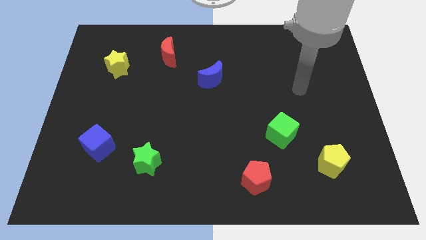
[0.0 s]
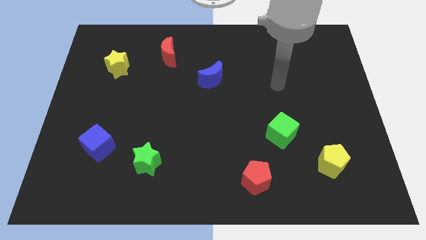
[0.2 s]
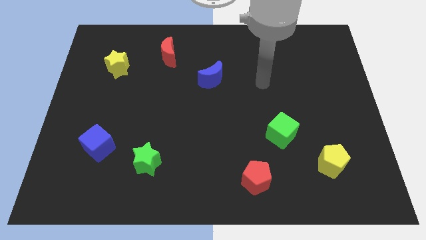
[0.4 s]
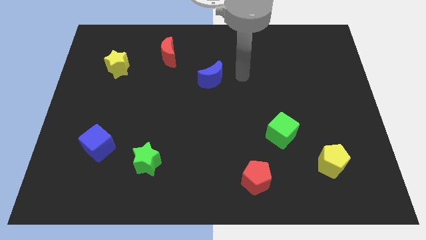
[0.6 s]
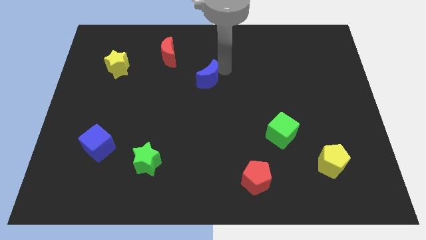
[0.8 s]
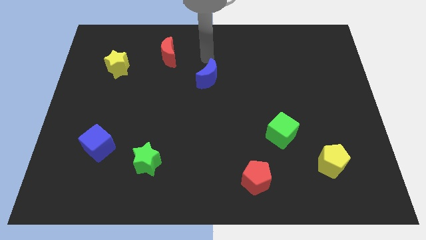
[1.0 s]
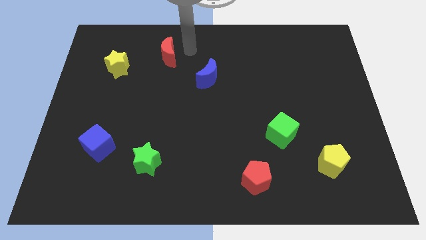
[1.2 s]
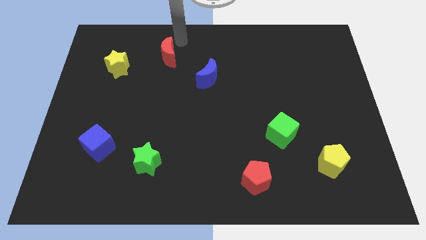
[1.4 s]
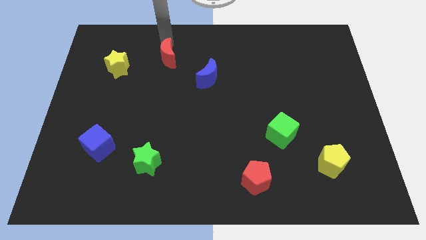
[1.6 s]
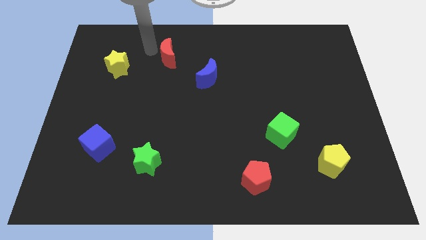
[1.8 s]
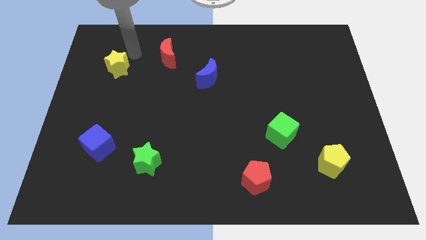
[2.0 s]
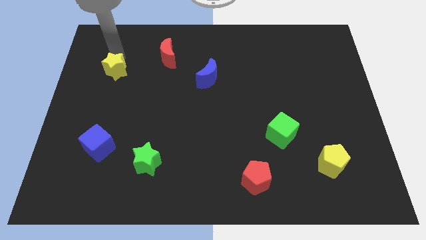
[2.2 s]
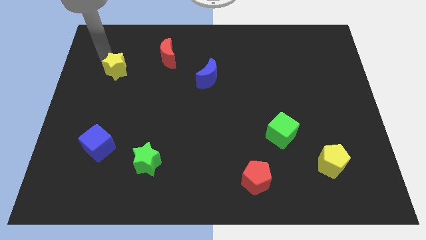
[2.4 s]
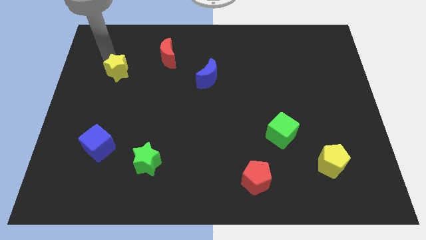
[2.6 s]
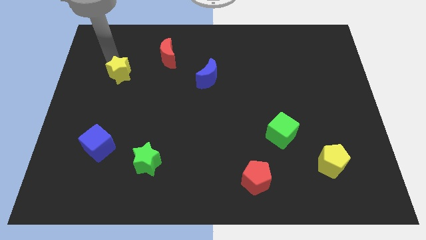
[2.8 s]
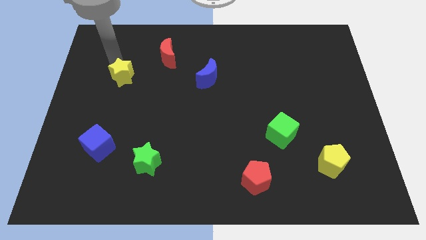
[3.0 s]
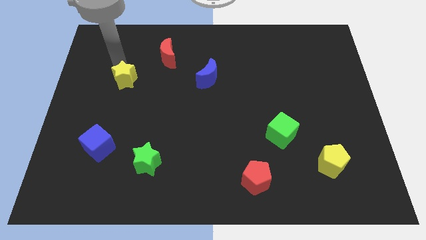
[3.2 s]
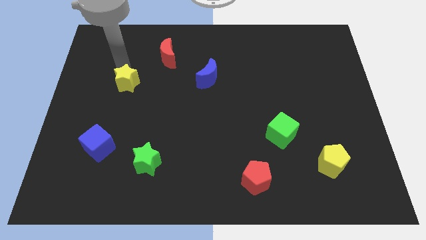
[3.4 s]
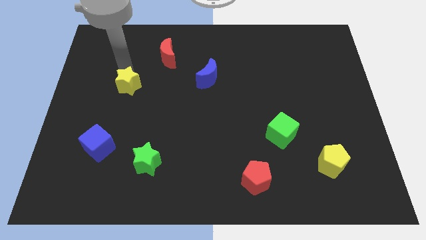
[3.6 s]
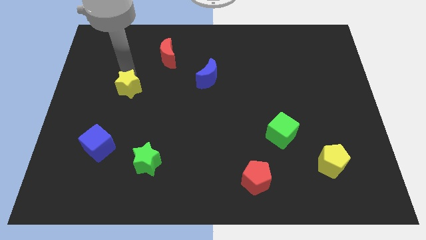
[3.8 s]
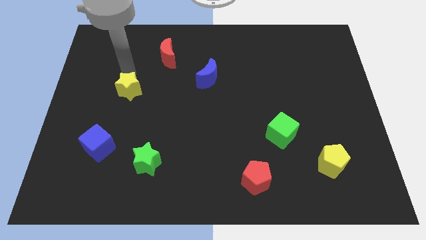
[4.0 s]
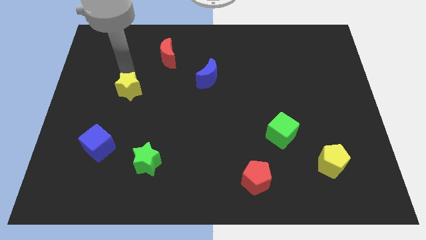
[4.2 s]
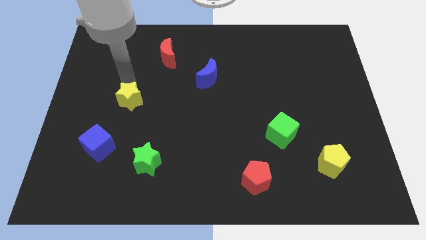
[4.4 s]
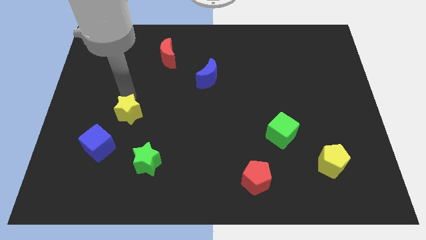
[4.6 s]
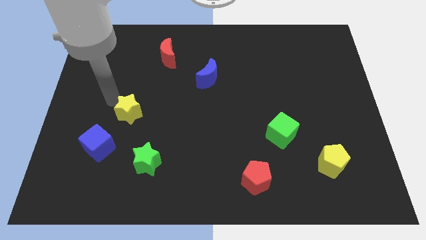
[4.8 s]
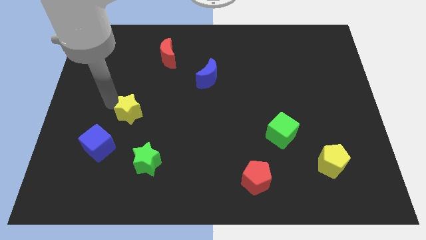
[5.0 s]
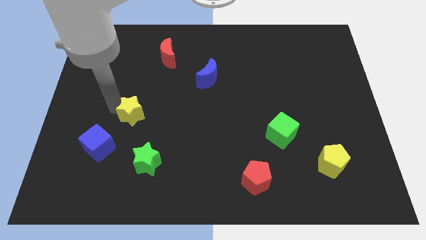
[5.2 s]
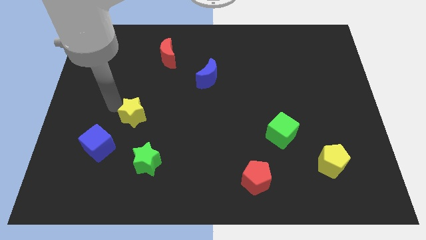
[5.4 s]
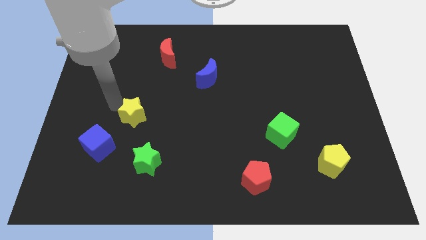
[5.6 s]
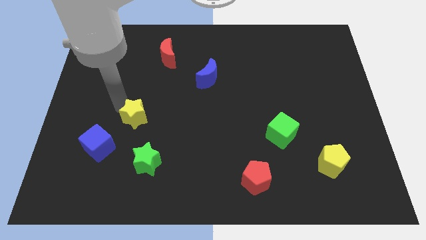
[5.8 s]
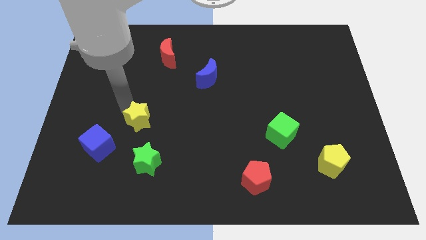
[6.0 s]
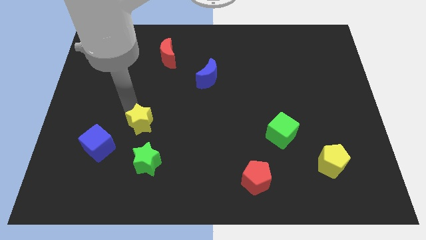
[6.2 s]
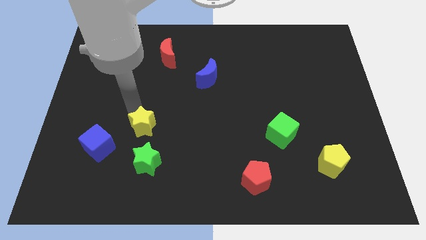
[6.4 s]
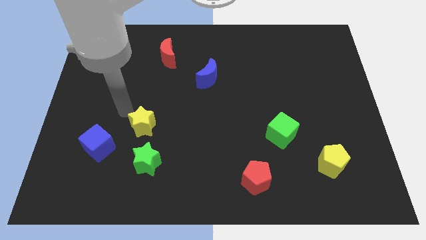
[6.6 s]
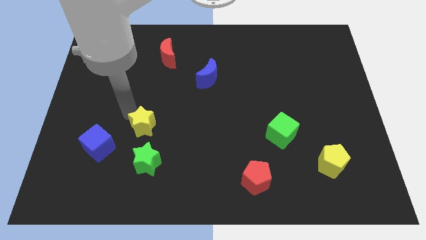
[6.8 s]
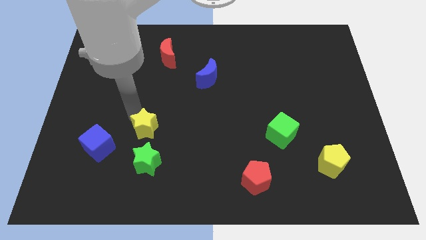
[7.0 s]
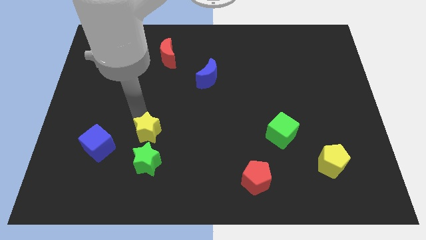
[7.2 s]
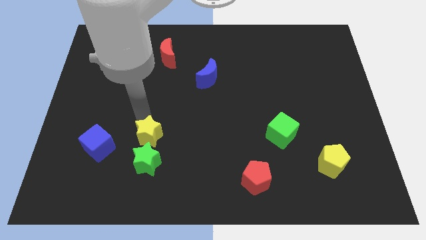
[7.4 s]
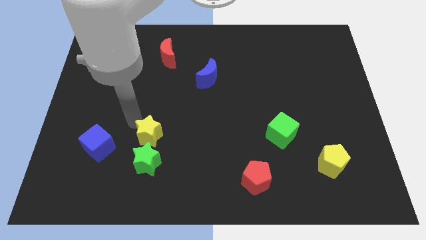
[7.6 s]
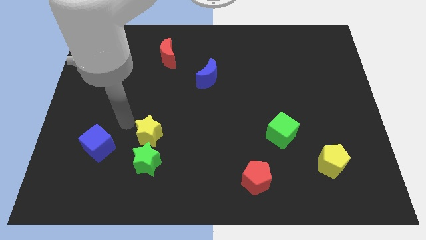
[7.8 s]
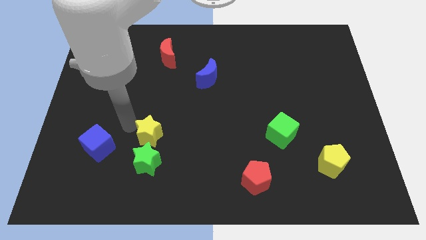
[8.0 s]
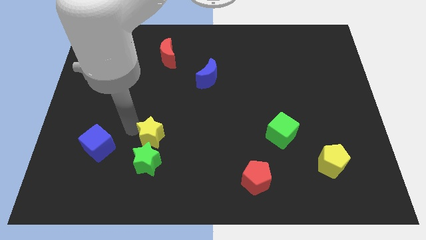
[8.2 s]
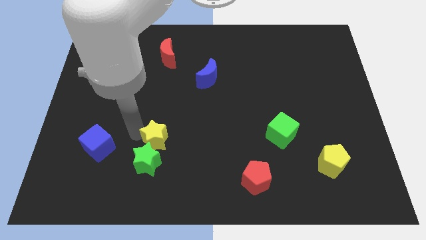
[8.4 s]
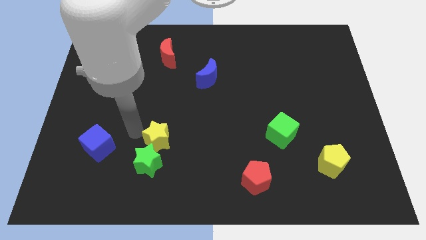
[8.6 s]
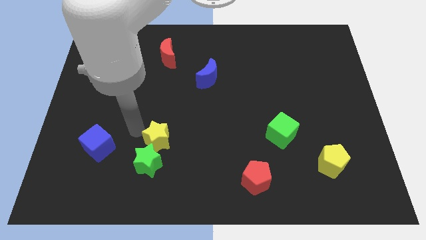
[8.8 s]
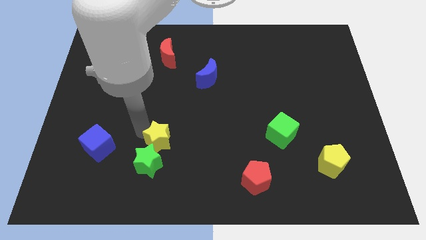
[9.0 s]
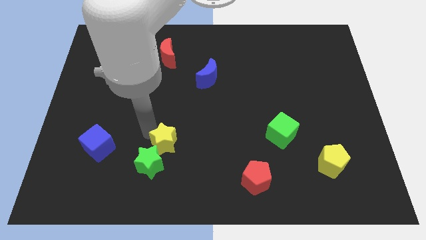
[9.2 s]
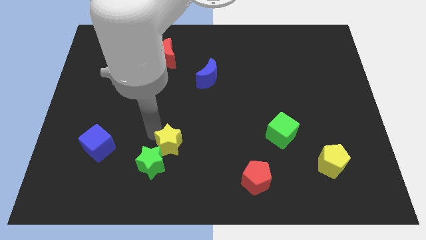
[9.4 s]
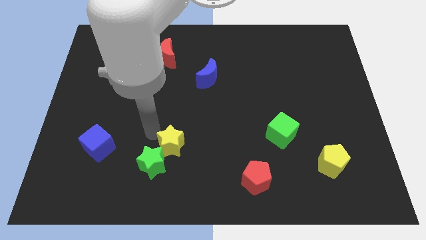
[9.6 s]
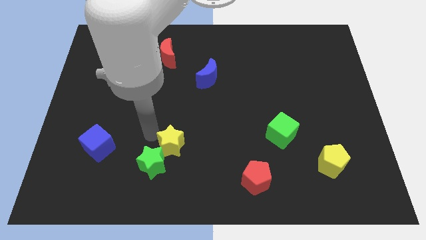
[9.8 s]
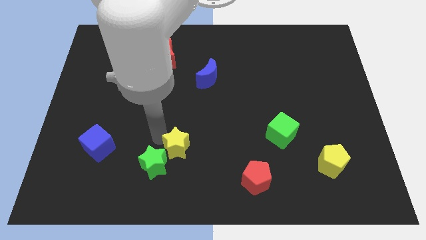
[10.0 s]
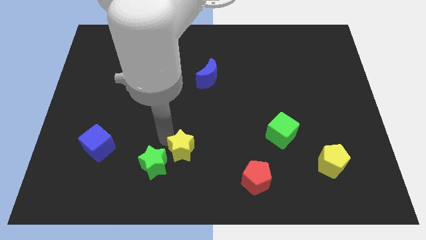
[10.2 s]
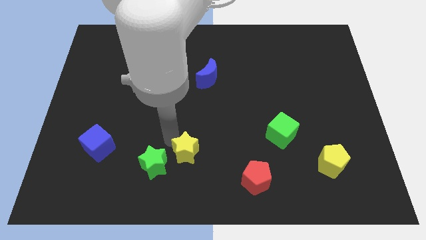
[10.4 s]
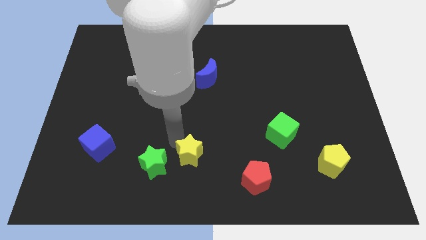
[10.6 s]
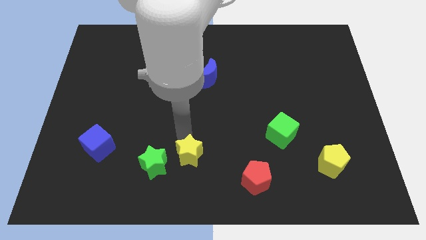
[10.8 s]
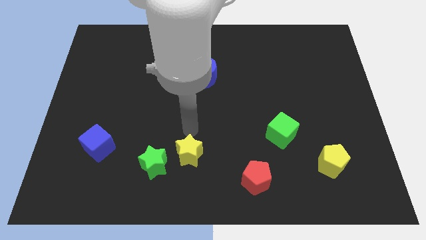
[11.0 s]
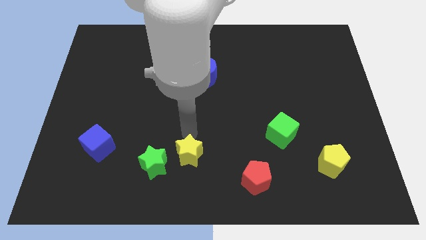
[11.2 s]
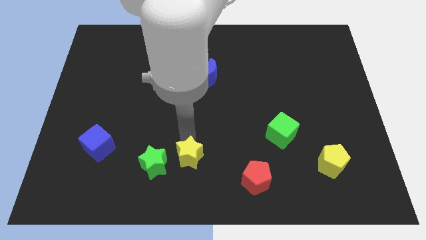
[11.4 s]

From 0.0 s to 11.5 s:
move the yellow star to the bottom
